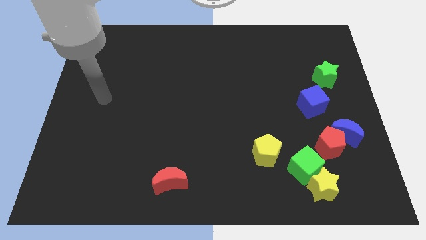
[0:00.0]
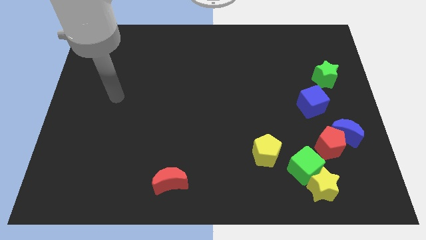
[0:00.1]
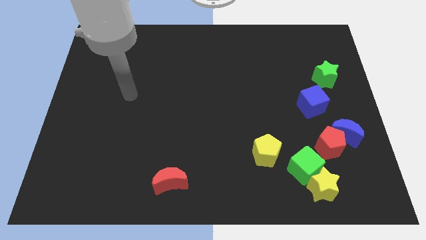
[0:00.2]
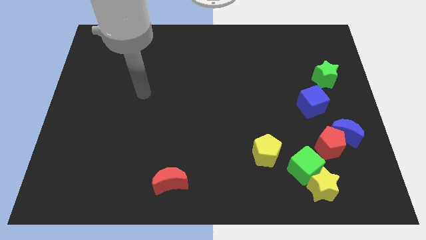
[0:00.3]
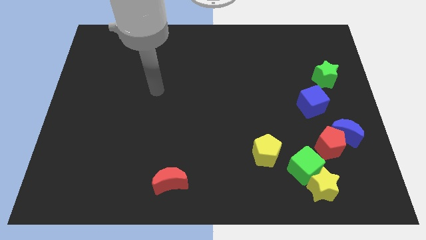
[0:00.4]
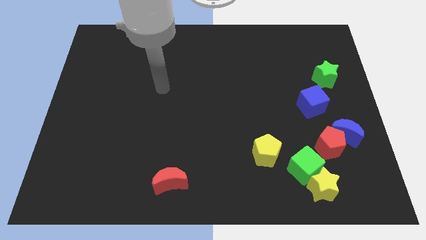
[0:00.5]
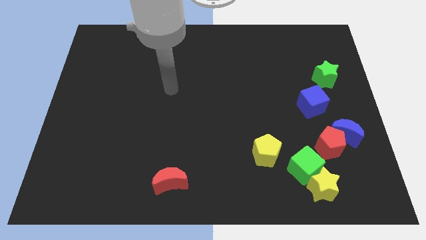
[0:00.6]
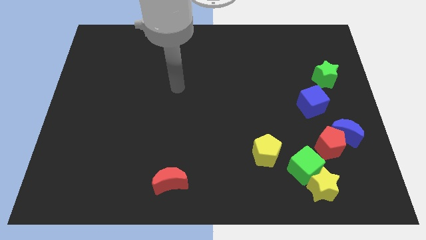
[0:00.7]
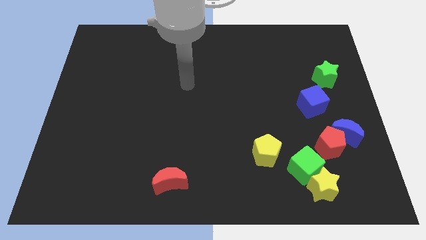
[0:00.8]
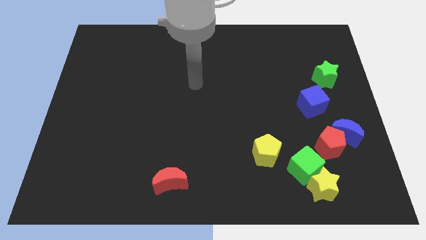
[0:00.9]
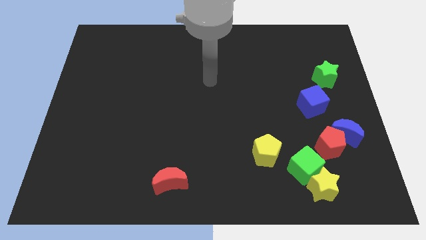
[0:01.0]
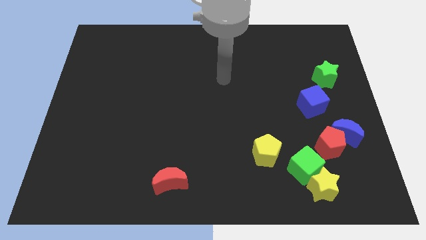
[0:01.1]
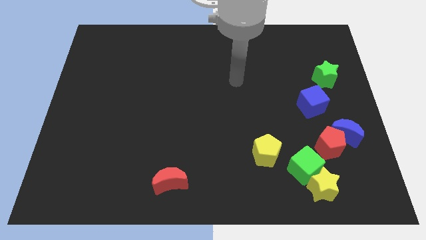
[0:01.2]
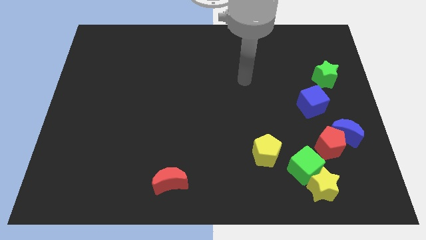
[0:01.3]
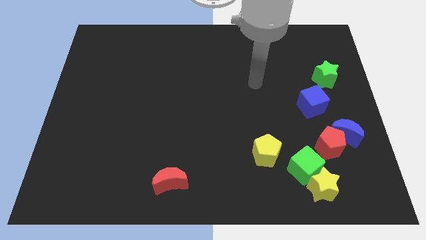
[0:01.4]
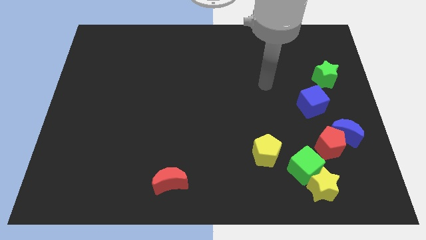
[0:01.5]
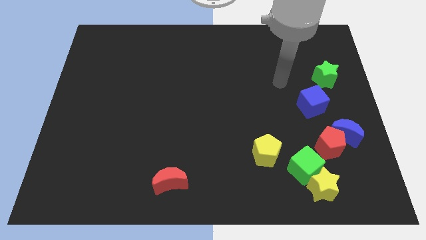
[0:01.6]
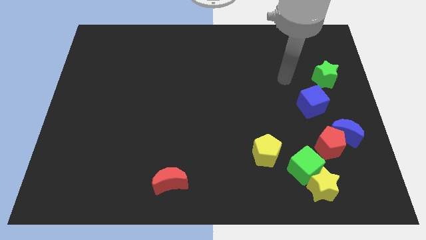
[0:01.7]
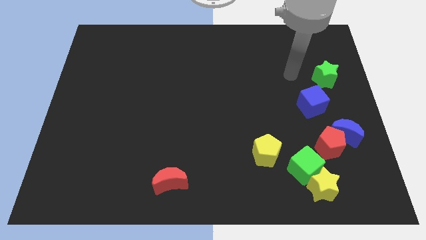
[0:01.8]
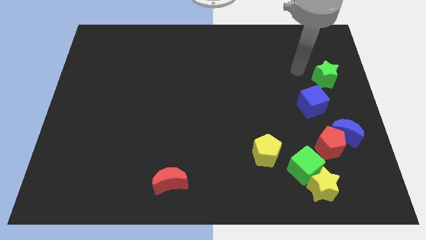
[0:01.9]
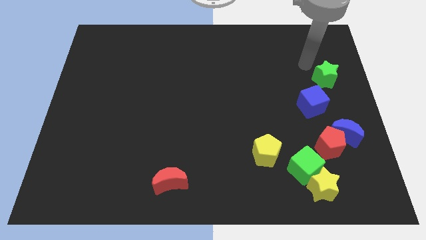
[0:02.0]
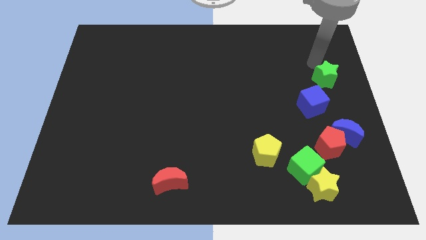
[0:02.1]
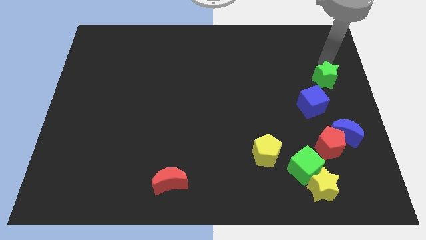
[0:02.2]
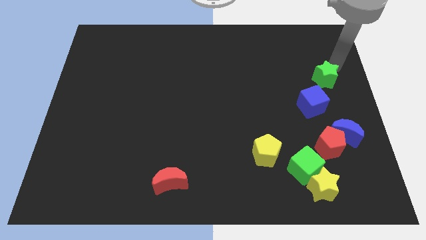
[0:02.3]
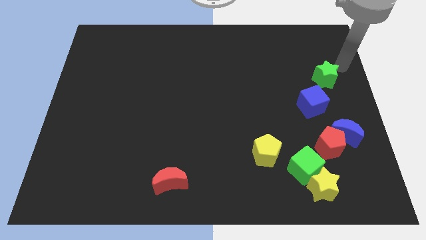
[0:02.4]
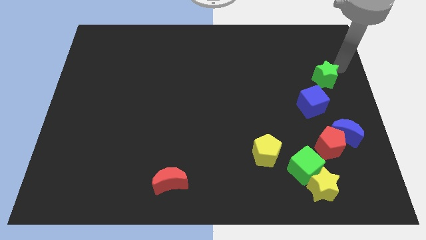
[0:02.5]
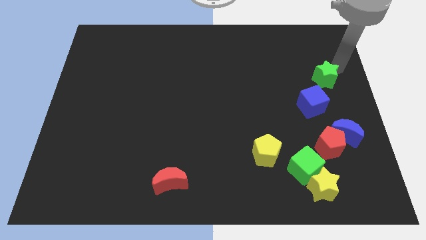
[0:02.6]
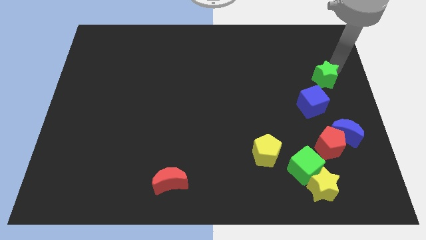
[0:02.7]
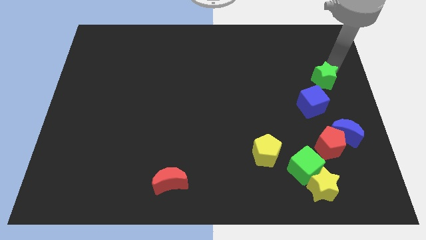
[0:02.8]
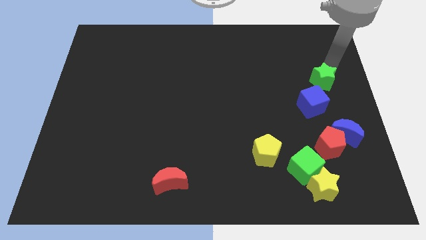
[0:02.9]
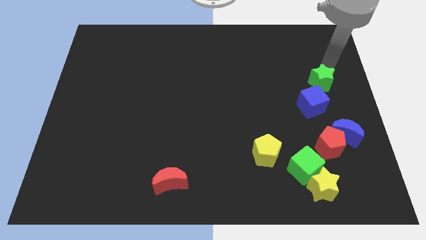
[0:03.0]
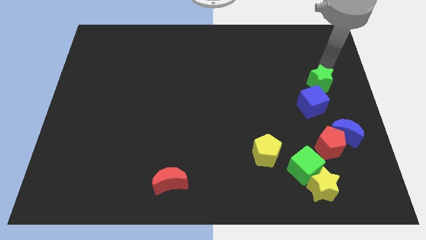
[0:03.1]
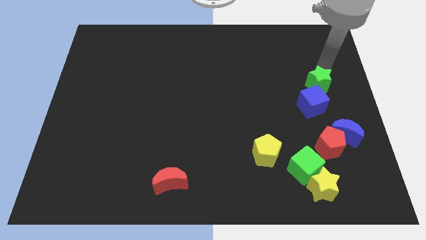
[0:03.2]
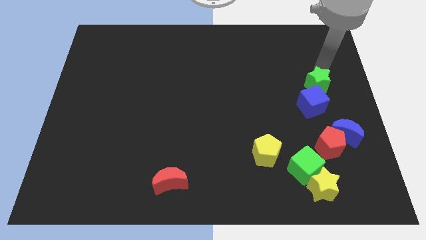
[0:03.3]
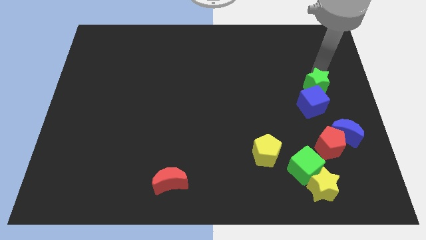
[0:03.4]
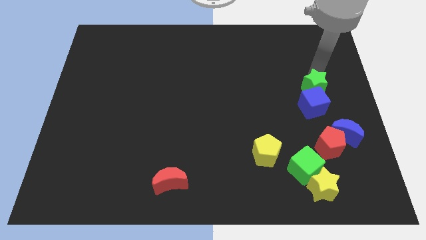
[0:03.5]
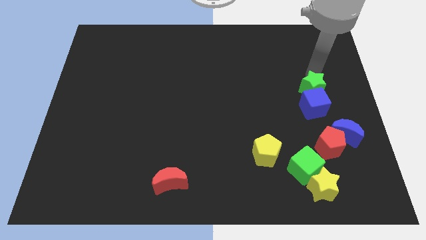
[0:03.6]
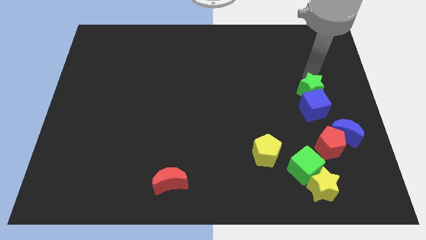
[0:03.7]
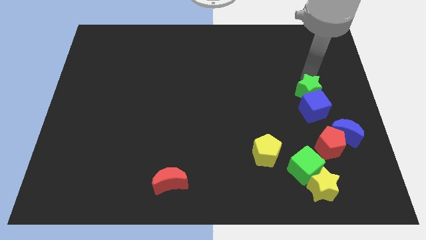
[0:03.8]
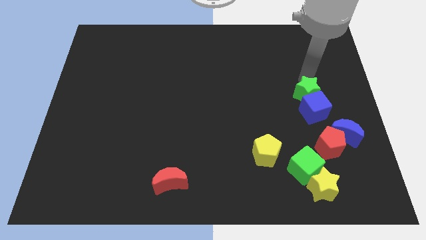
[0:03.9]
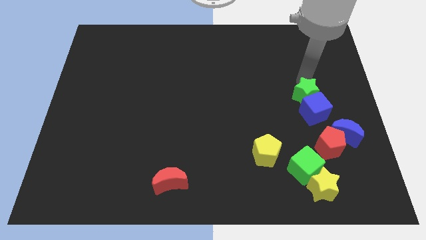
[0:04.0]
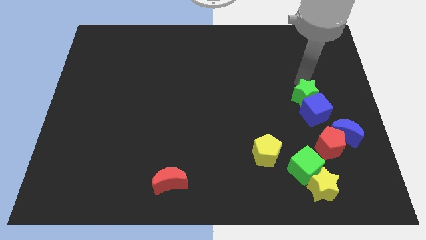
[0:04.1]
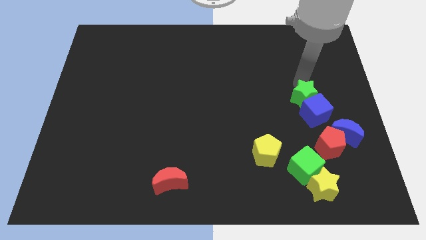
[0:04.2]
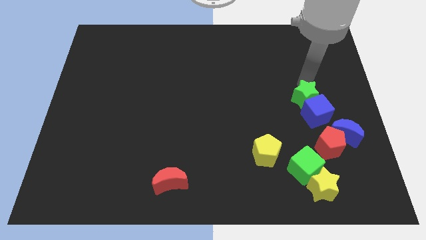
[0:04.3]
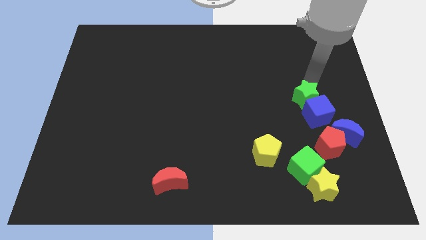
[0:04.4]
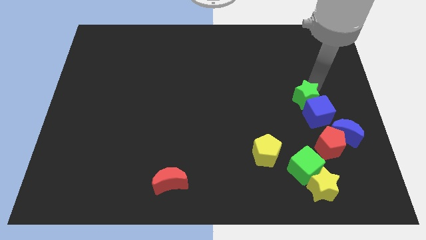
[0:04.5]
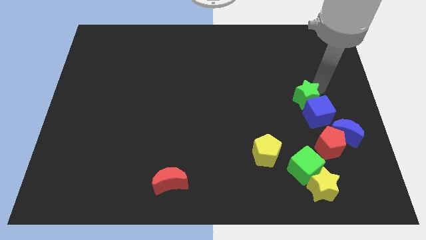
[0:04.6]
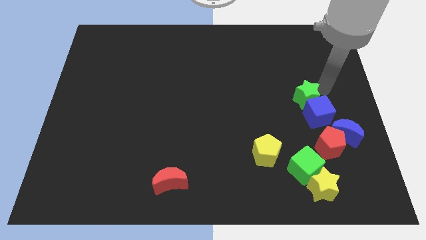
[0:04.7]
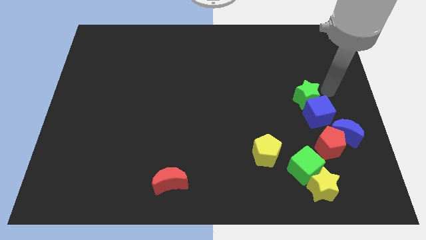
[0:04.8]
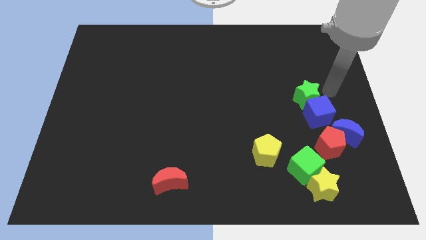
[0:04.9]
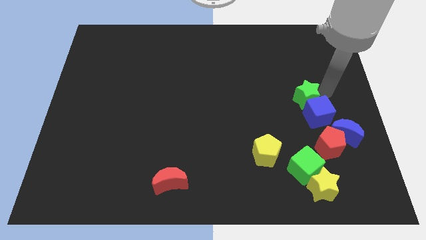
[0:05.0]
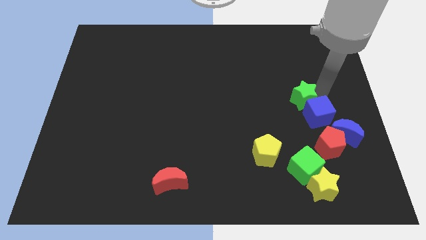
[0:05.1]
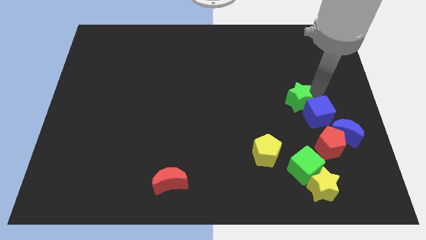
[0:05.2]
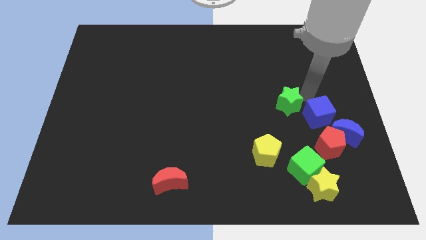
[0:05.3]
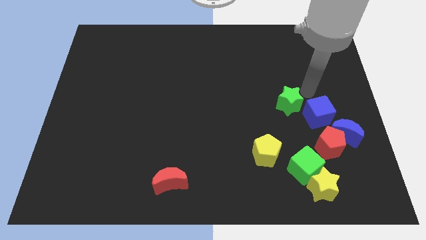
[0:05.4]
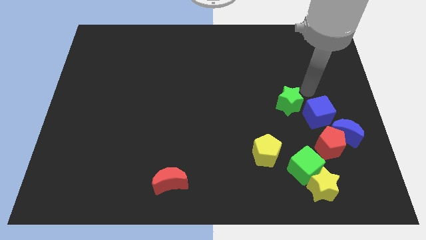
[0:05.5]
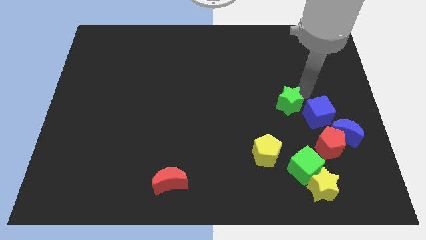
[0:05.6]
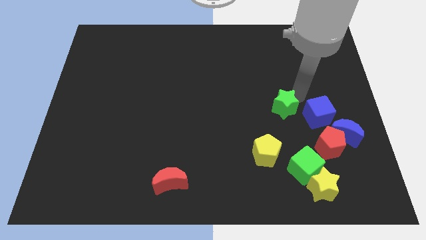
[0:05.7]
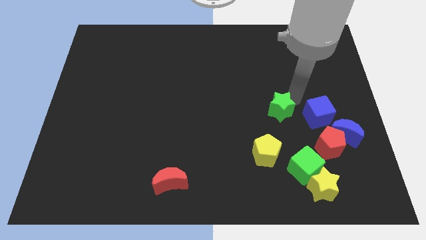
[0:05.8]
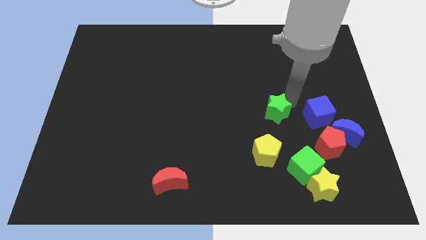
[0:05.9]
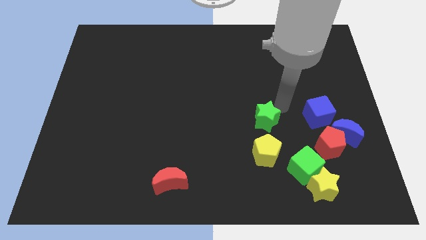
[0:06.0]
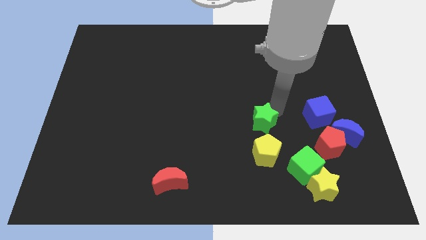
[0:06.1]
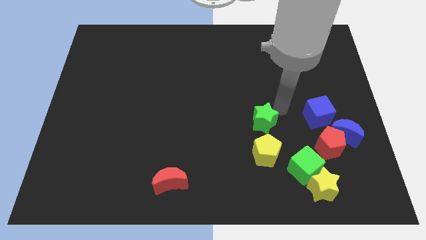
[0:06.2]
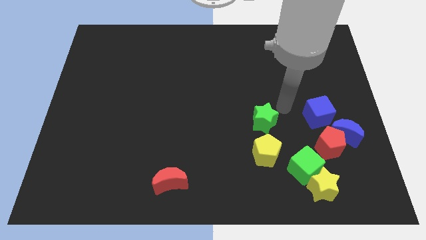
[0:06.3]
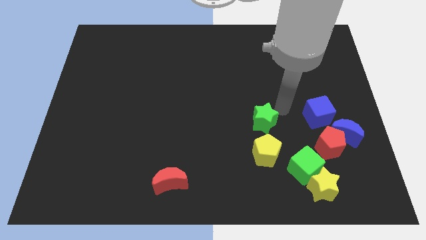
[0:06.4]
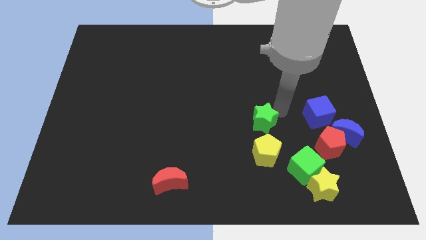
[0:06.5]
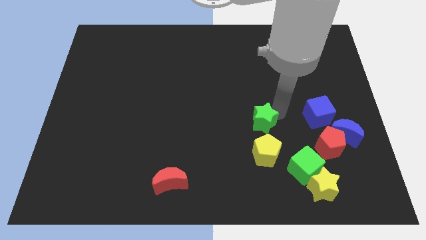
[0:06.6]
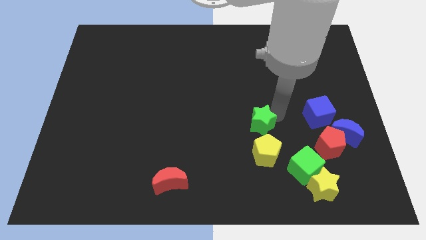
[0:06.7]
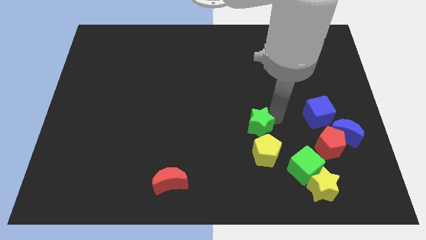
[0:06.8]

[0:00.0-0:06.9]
put the green star diagonally up and to the left of the yellow pentagon

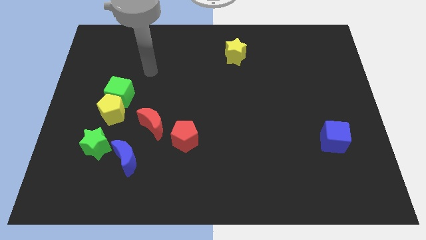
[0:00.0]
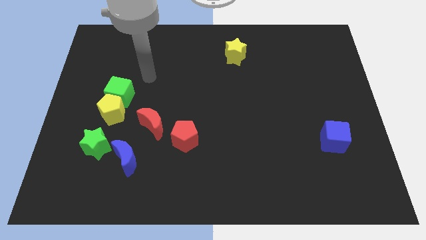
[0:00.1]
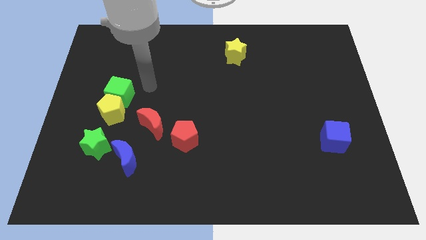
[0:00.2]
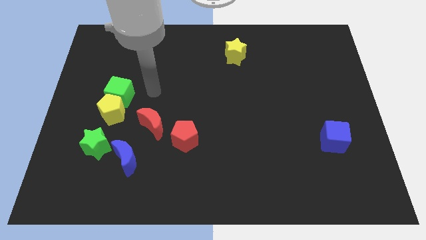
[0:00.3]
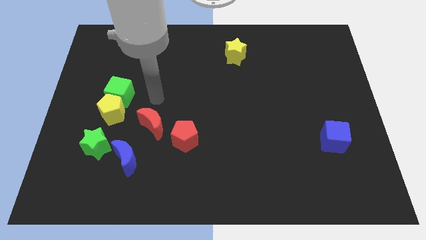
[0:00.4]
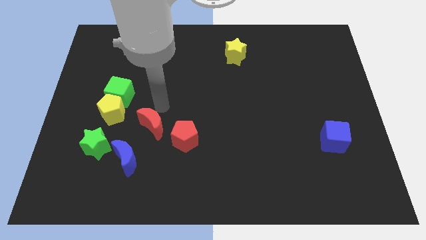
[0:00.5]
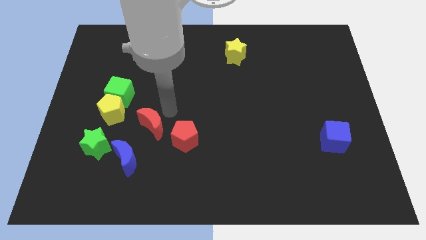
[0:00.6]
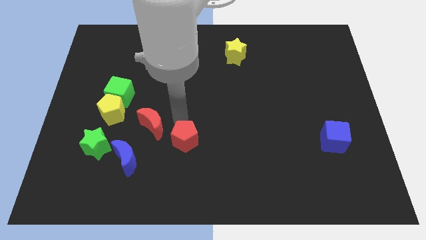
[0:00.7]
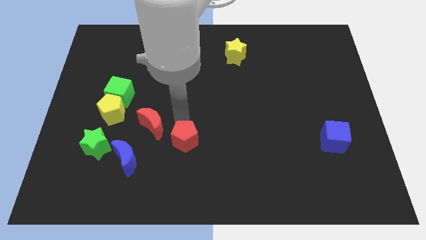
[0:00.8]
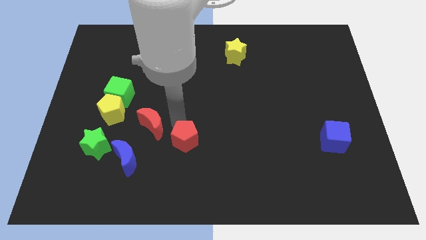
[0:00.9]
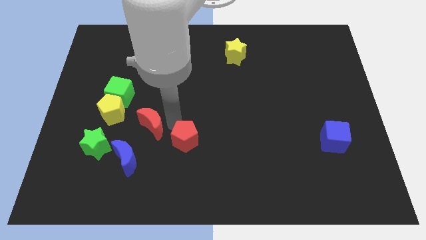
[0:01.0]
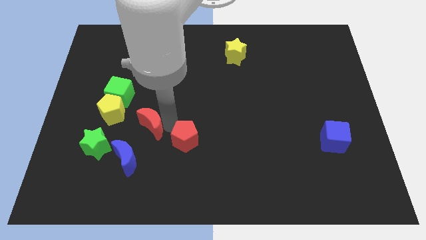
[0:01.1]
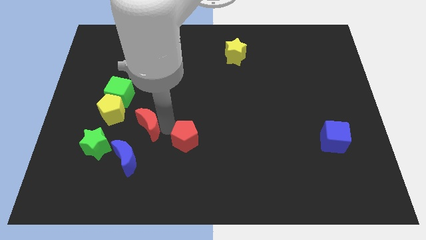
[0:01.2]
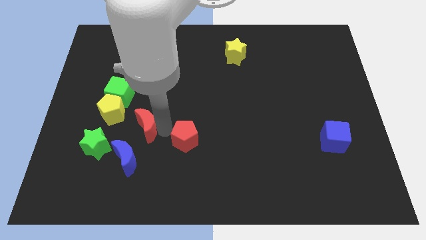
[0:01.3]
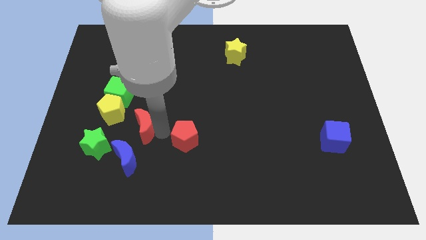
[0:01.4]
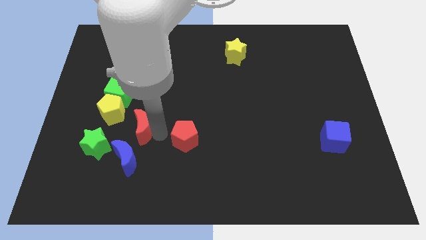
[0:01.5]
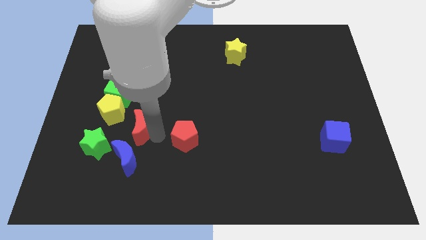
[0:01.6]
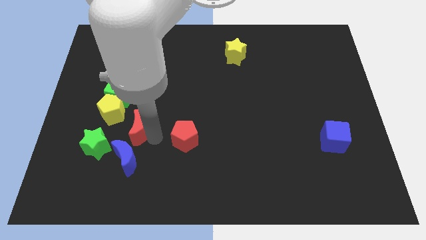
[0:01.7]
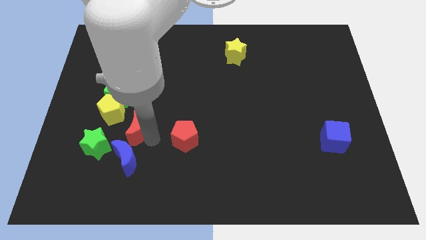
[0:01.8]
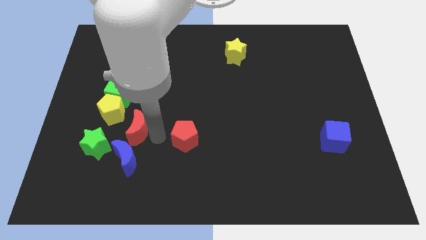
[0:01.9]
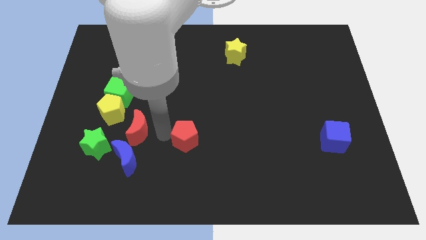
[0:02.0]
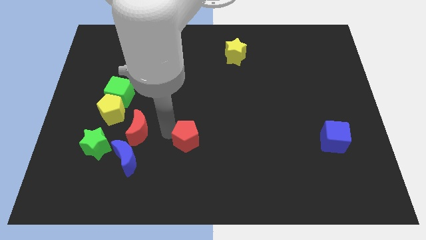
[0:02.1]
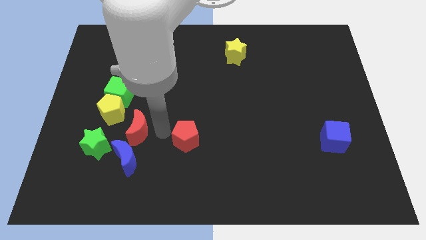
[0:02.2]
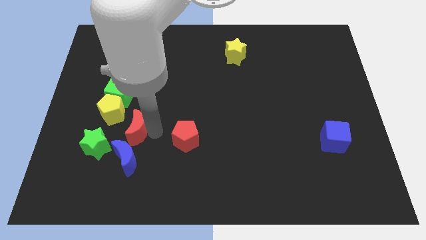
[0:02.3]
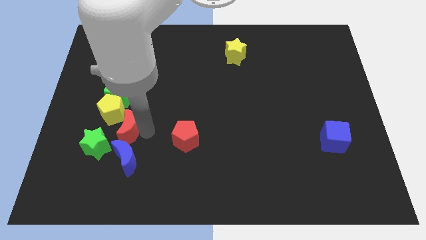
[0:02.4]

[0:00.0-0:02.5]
slide the red moon below the green cube
